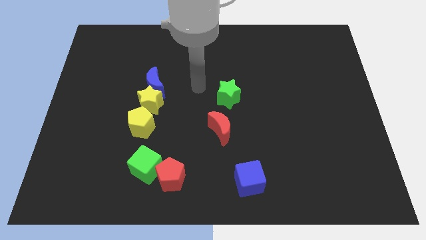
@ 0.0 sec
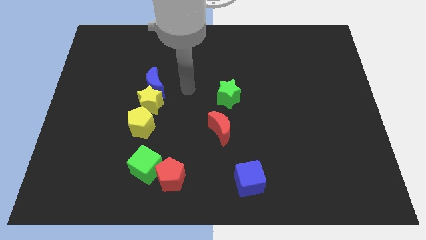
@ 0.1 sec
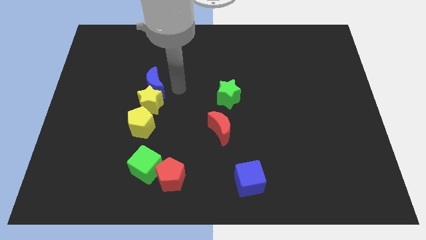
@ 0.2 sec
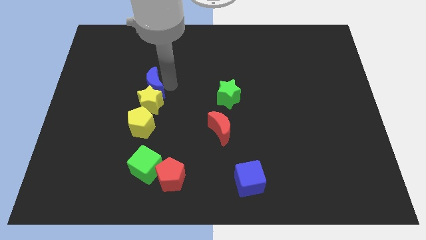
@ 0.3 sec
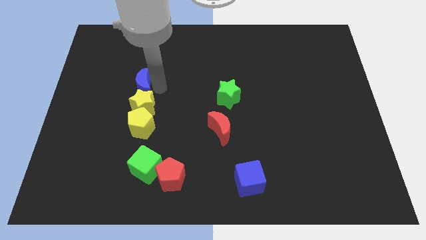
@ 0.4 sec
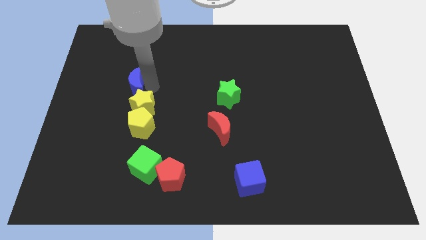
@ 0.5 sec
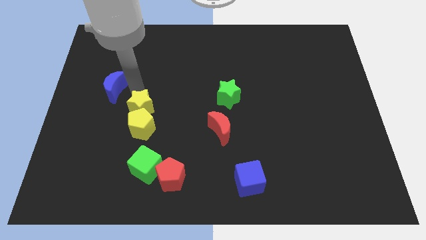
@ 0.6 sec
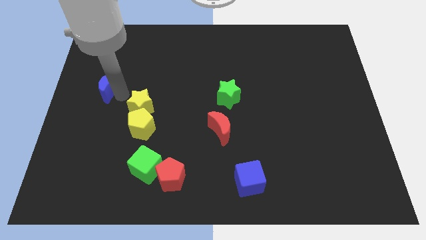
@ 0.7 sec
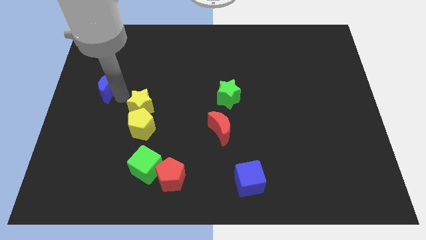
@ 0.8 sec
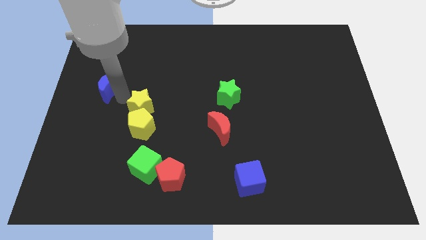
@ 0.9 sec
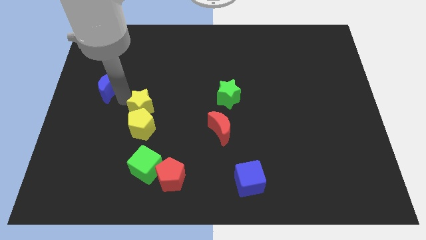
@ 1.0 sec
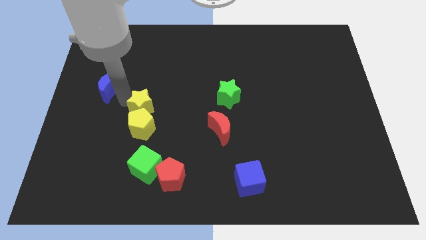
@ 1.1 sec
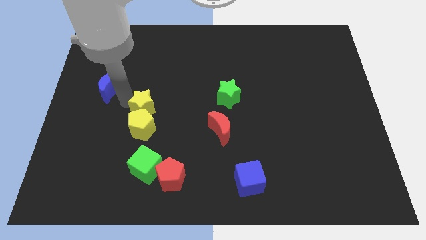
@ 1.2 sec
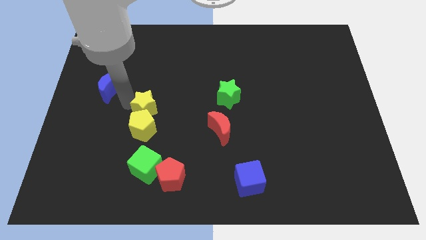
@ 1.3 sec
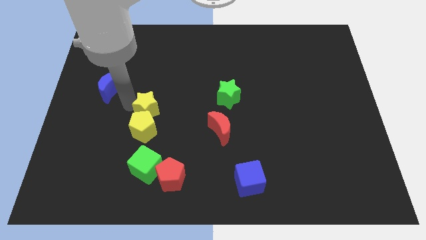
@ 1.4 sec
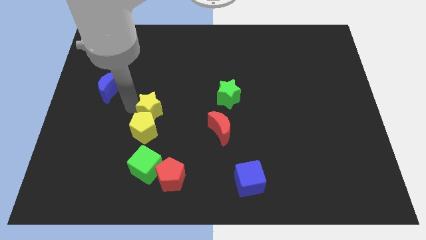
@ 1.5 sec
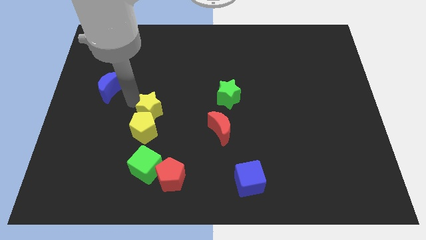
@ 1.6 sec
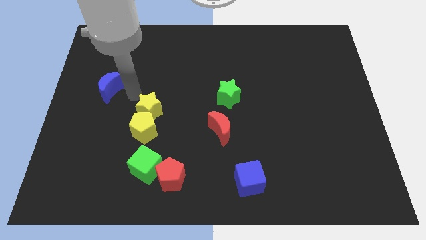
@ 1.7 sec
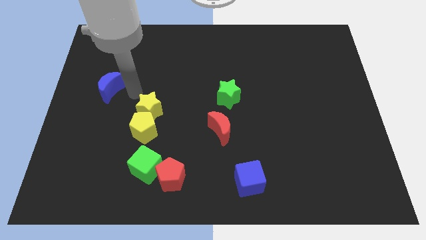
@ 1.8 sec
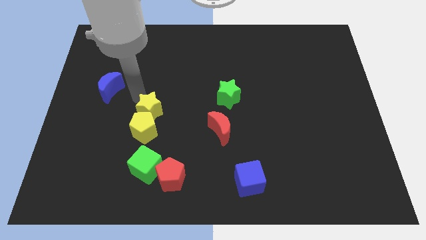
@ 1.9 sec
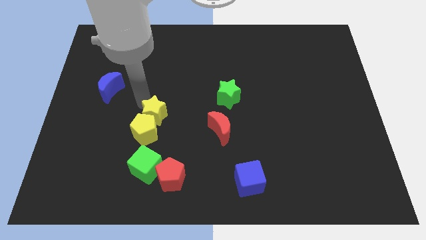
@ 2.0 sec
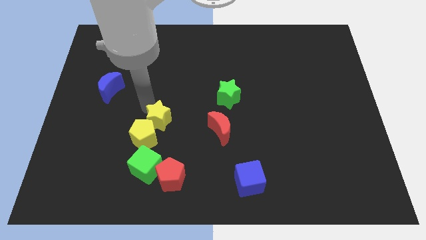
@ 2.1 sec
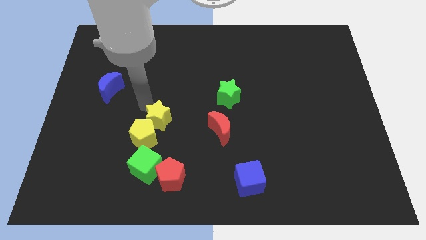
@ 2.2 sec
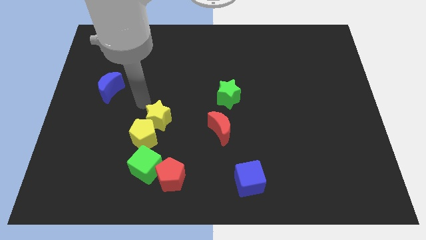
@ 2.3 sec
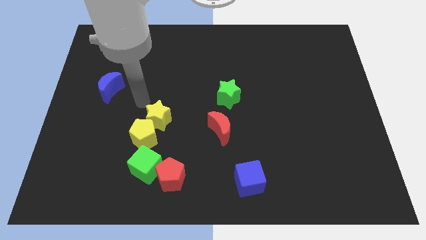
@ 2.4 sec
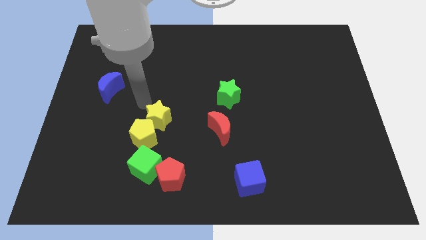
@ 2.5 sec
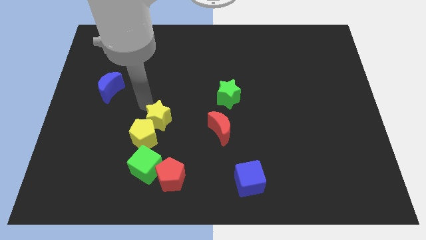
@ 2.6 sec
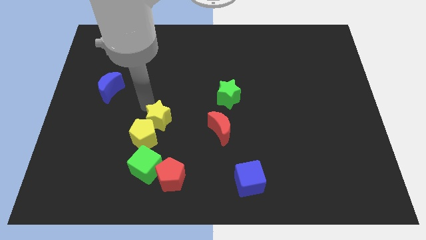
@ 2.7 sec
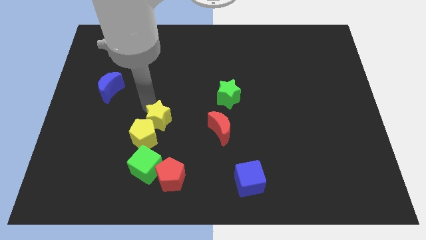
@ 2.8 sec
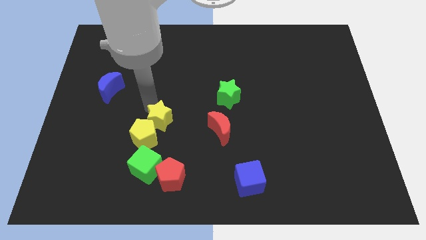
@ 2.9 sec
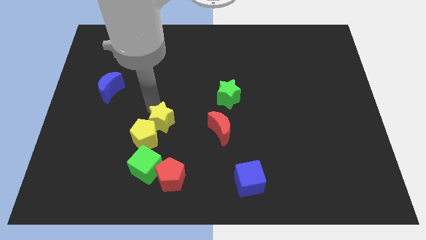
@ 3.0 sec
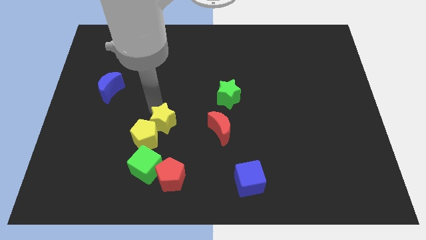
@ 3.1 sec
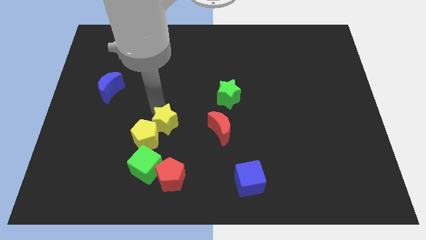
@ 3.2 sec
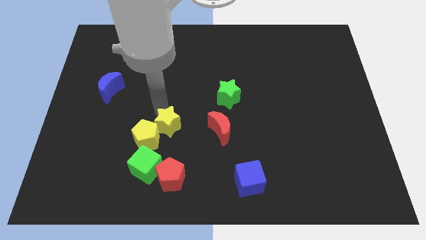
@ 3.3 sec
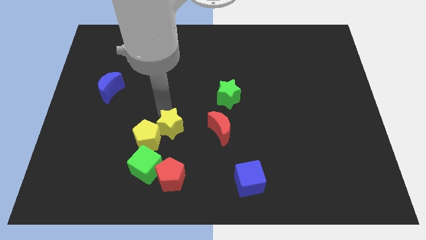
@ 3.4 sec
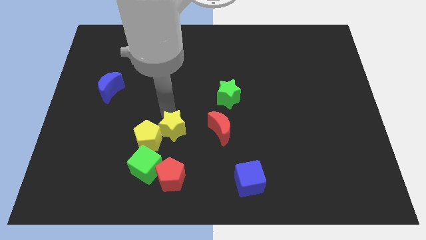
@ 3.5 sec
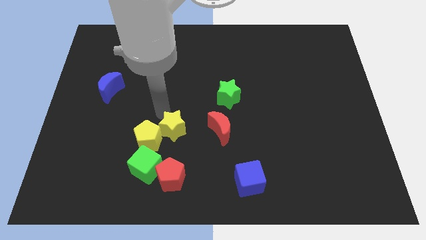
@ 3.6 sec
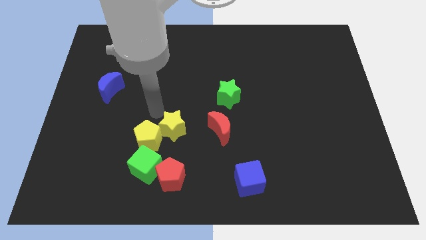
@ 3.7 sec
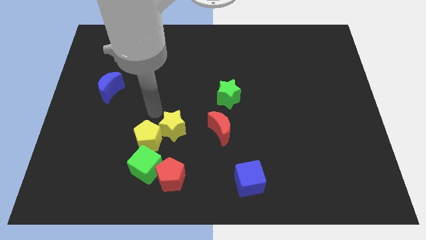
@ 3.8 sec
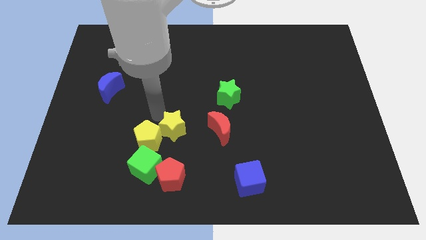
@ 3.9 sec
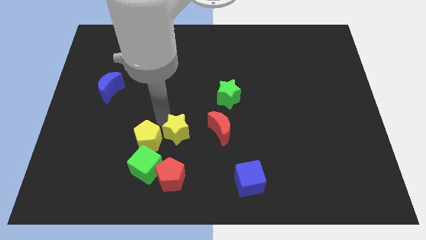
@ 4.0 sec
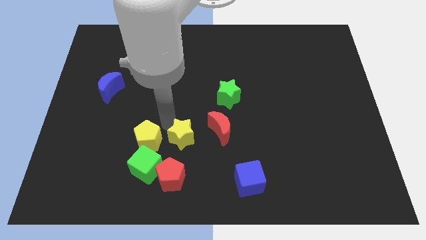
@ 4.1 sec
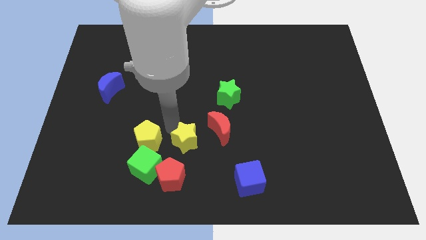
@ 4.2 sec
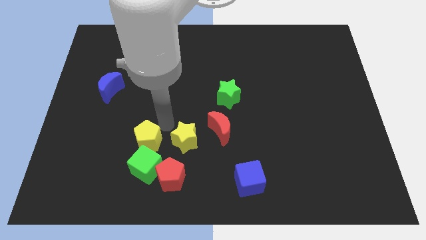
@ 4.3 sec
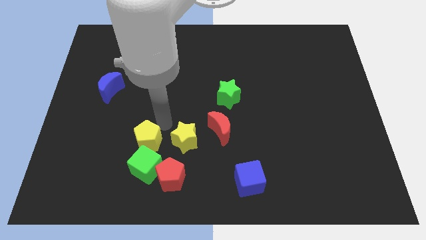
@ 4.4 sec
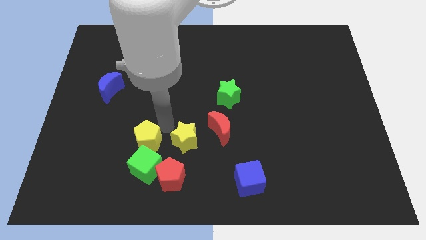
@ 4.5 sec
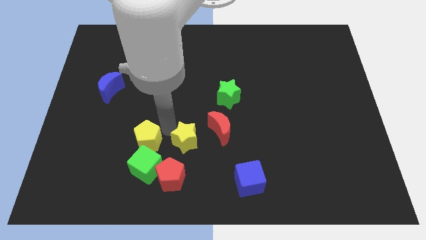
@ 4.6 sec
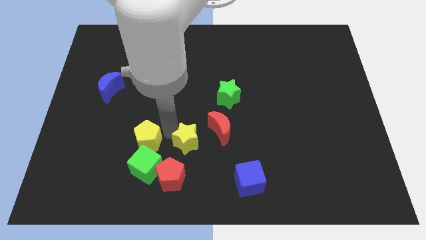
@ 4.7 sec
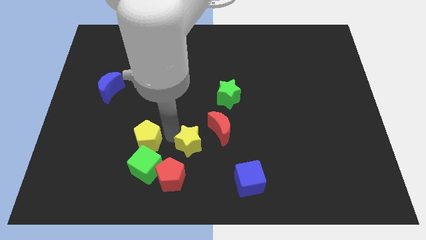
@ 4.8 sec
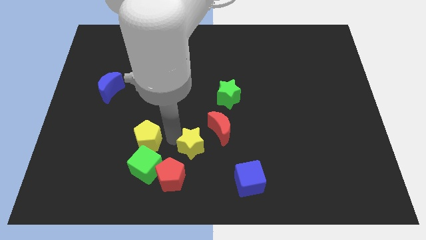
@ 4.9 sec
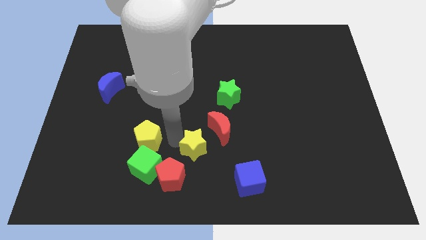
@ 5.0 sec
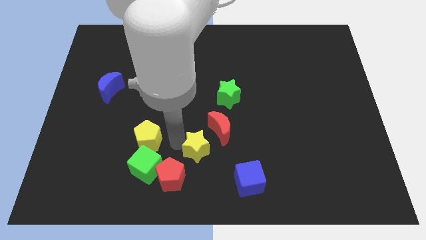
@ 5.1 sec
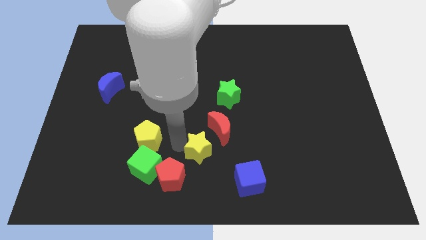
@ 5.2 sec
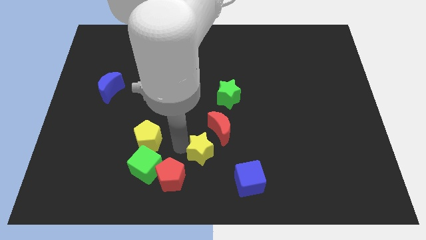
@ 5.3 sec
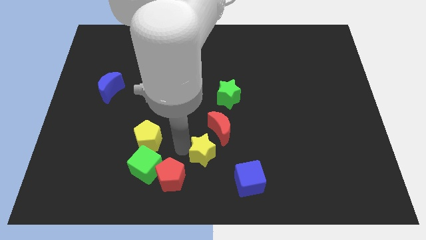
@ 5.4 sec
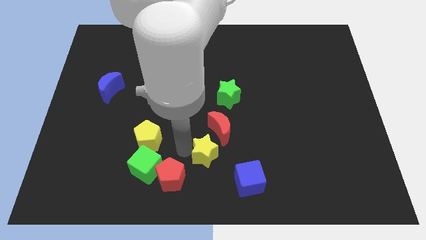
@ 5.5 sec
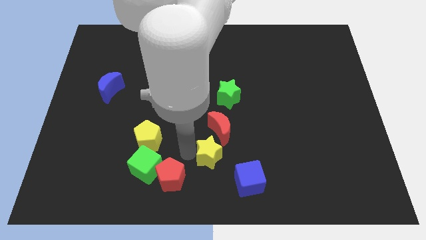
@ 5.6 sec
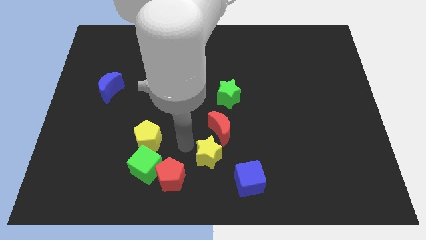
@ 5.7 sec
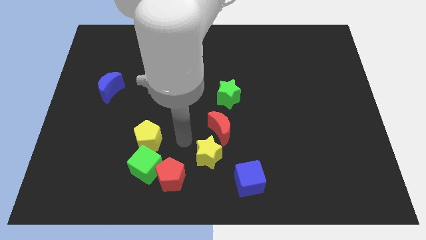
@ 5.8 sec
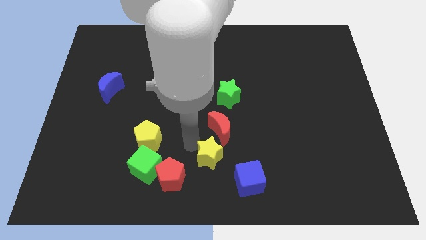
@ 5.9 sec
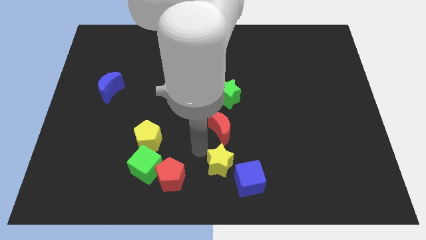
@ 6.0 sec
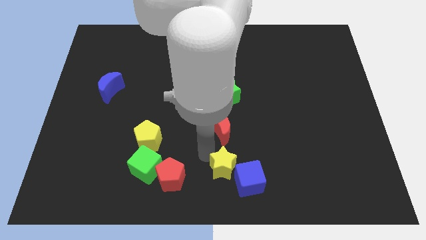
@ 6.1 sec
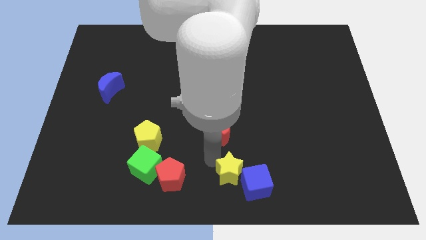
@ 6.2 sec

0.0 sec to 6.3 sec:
slide the yellow star close to the blue cube

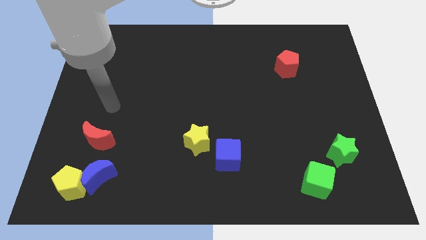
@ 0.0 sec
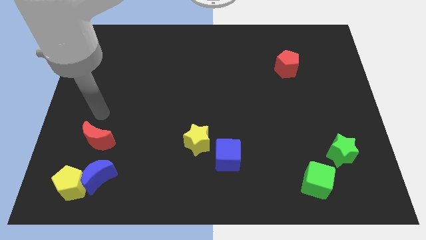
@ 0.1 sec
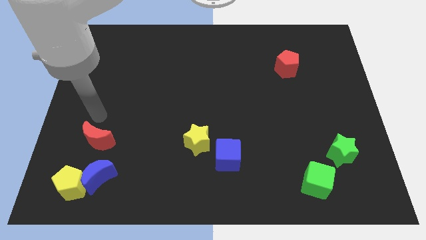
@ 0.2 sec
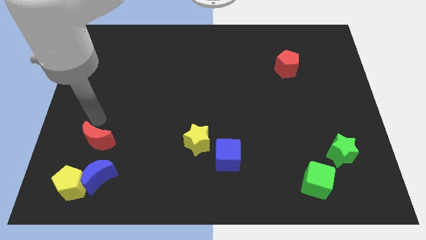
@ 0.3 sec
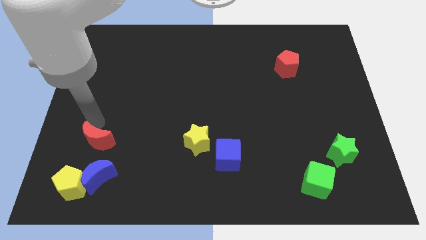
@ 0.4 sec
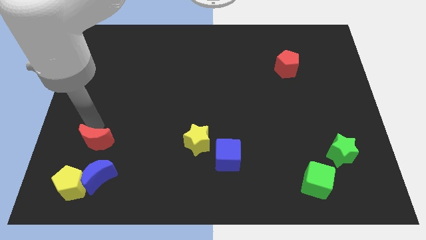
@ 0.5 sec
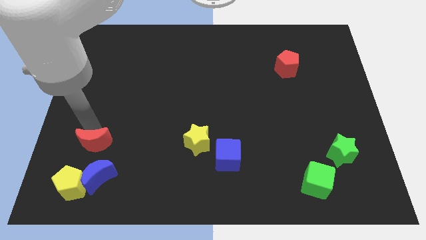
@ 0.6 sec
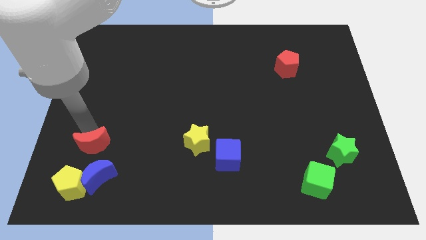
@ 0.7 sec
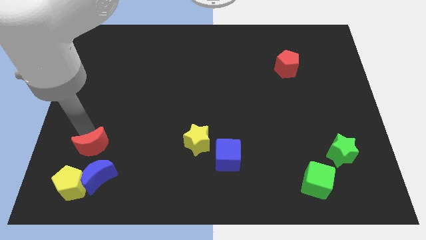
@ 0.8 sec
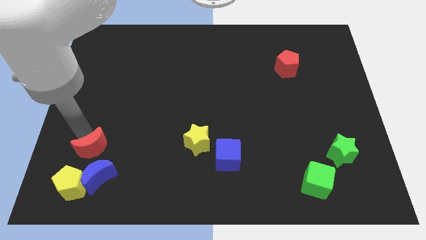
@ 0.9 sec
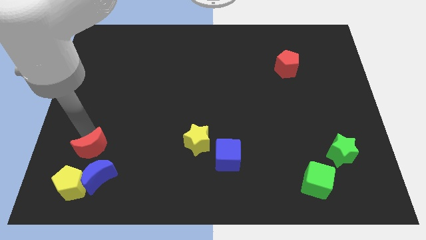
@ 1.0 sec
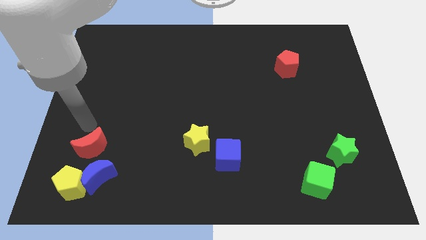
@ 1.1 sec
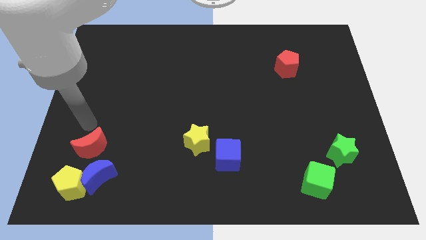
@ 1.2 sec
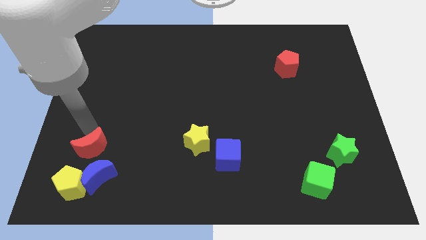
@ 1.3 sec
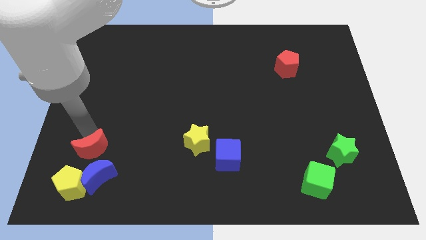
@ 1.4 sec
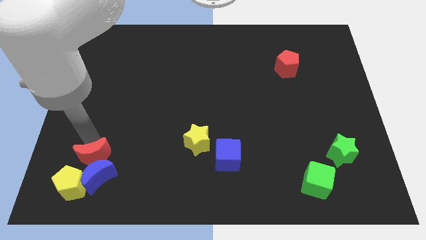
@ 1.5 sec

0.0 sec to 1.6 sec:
put the red moon towards the blue moon
